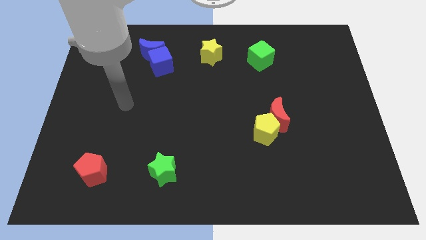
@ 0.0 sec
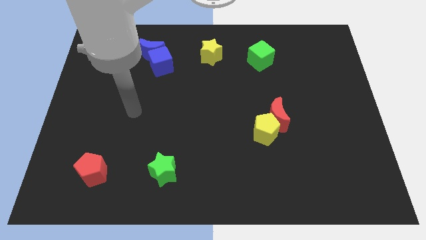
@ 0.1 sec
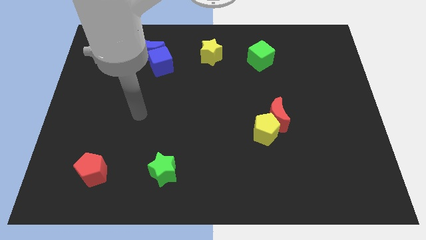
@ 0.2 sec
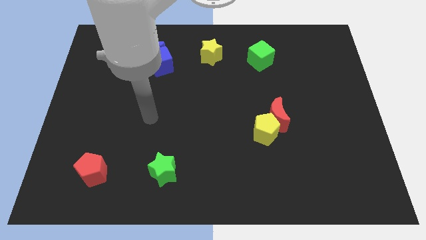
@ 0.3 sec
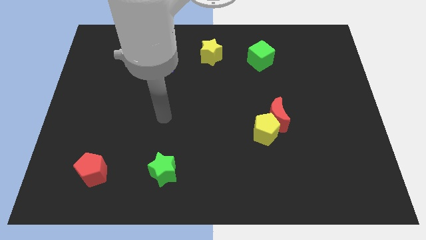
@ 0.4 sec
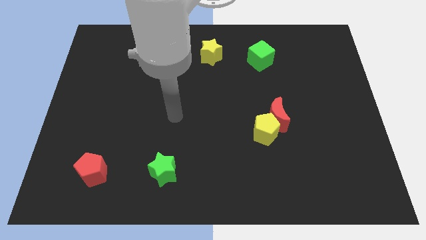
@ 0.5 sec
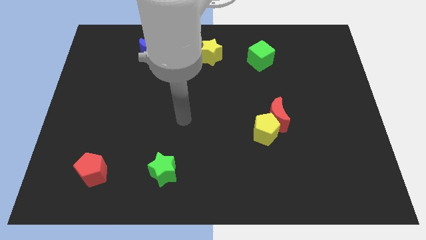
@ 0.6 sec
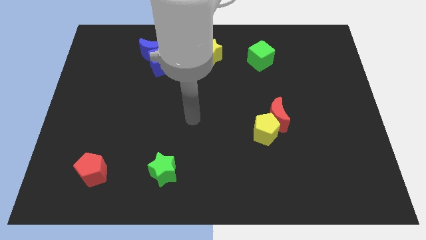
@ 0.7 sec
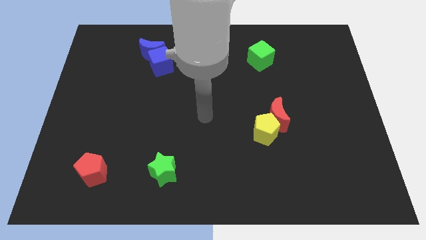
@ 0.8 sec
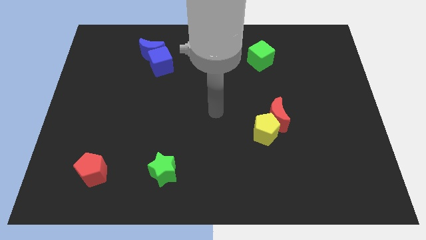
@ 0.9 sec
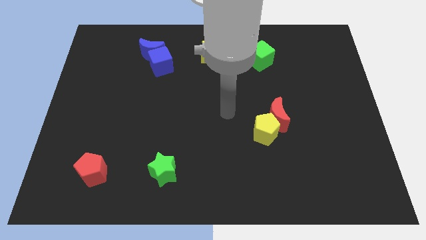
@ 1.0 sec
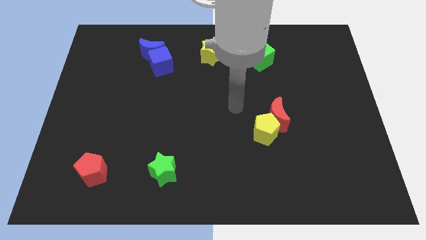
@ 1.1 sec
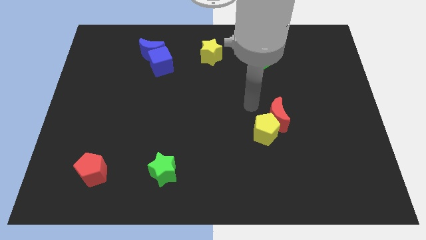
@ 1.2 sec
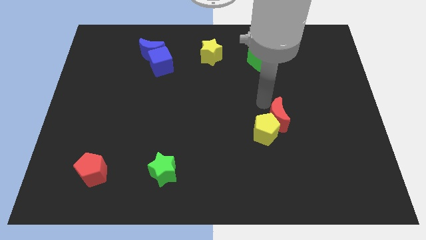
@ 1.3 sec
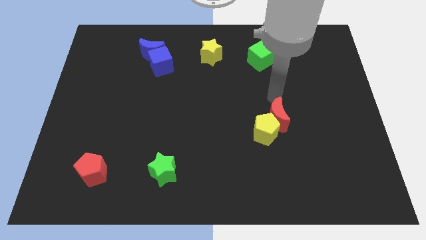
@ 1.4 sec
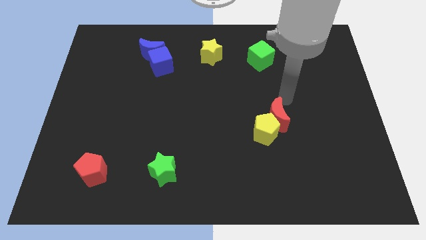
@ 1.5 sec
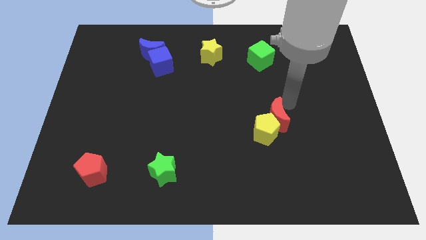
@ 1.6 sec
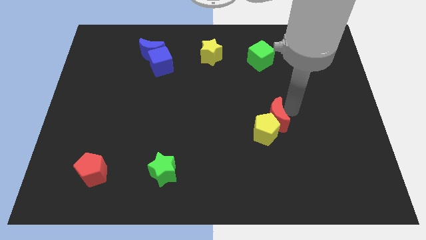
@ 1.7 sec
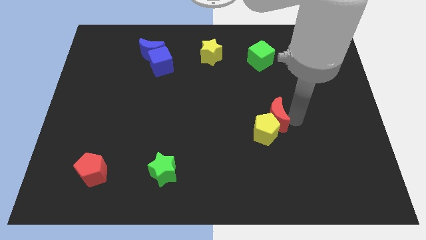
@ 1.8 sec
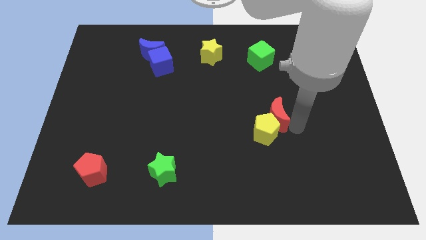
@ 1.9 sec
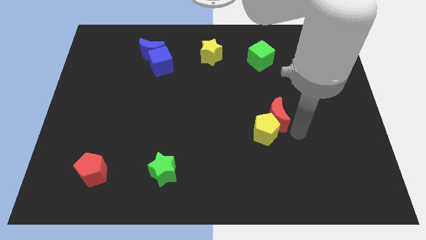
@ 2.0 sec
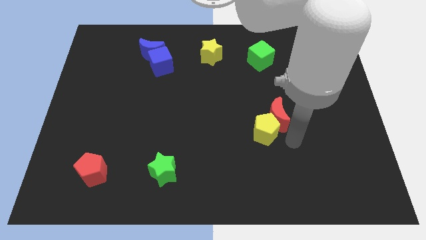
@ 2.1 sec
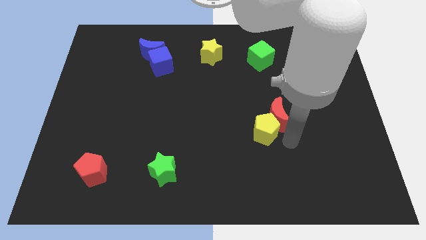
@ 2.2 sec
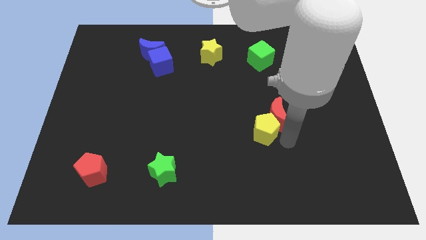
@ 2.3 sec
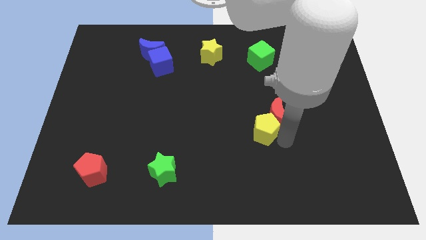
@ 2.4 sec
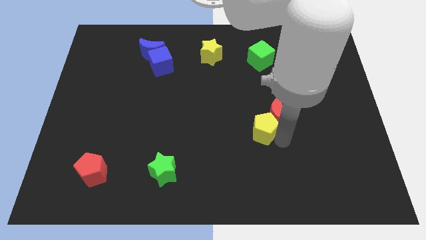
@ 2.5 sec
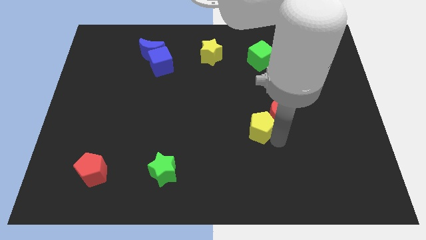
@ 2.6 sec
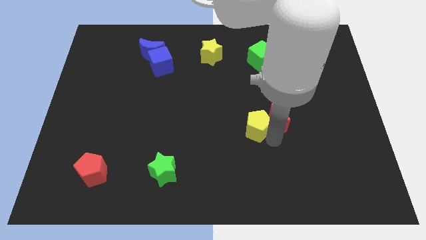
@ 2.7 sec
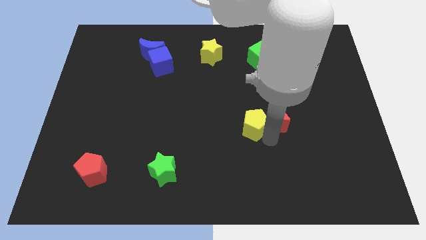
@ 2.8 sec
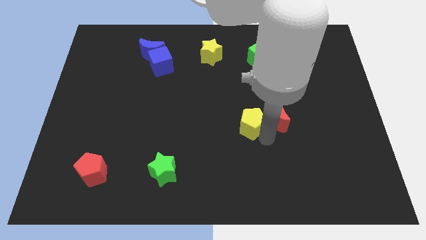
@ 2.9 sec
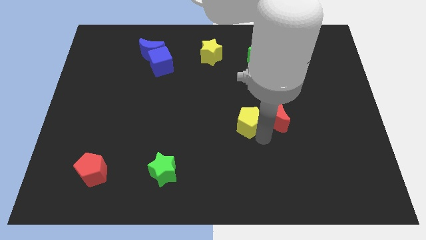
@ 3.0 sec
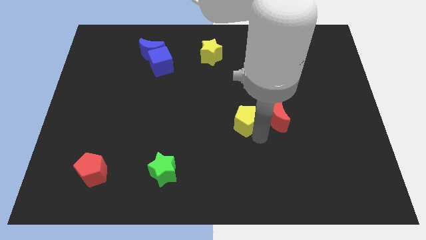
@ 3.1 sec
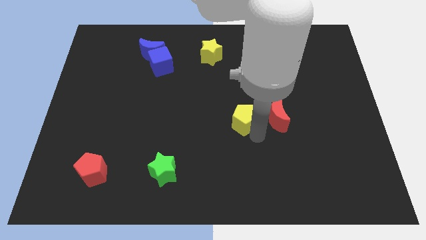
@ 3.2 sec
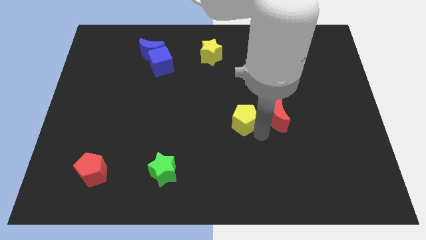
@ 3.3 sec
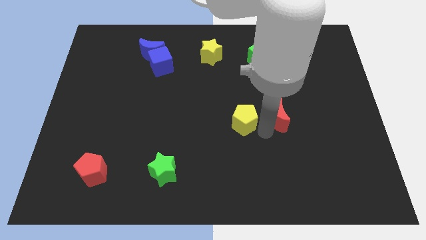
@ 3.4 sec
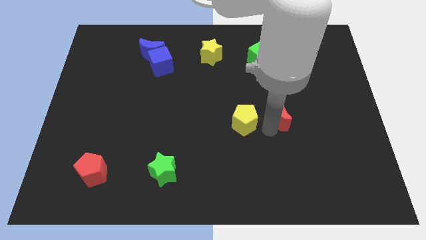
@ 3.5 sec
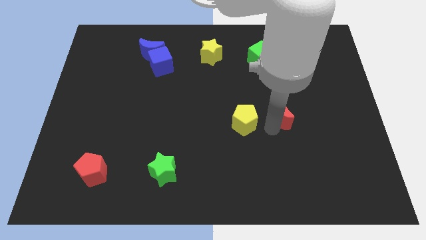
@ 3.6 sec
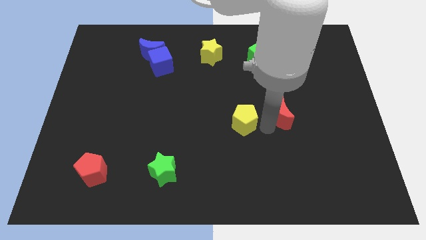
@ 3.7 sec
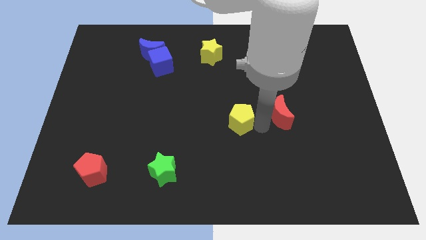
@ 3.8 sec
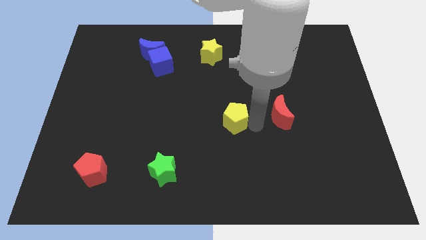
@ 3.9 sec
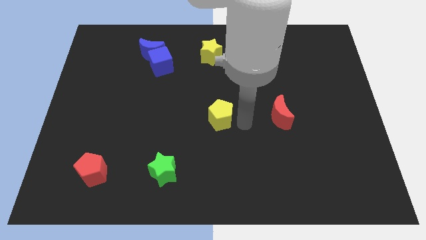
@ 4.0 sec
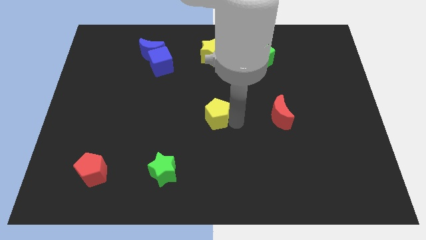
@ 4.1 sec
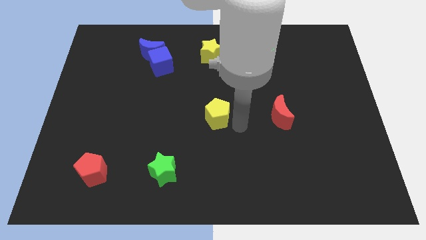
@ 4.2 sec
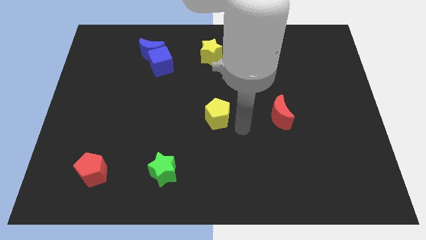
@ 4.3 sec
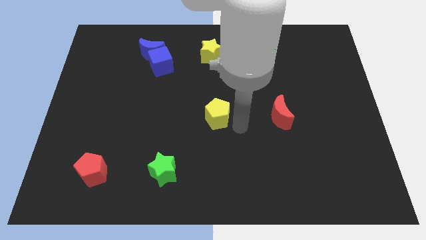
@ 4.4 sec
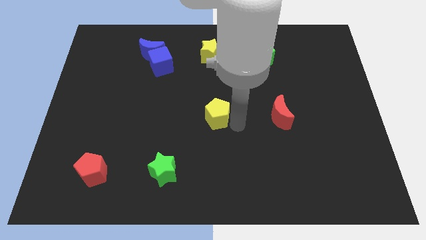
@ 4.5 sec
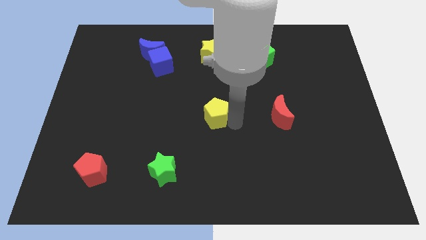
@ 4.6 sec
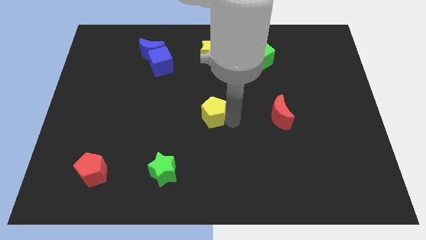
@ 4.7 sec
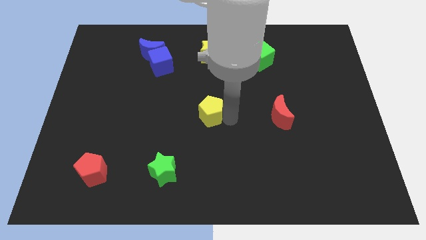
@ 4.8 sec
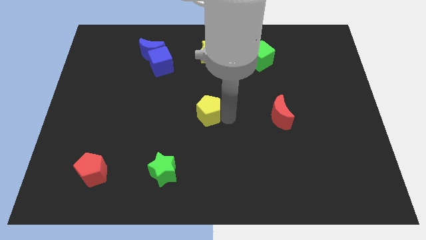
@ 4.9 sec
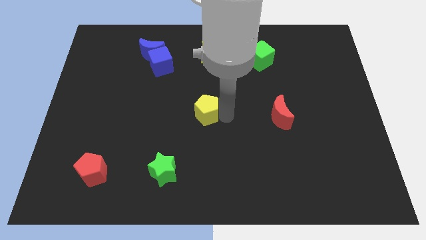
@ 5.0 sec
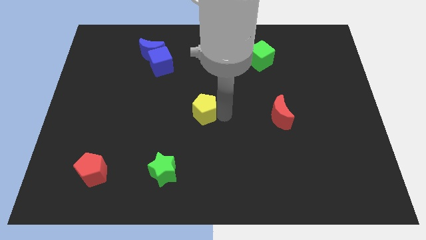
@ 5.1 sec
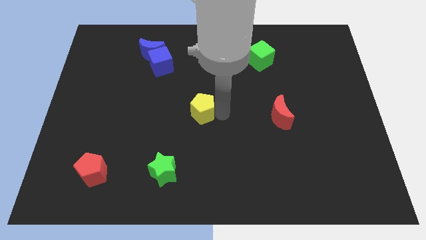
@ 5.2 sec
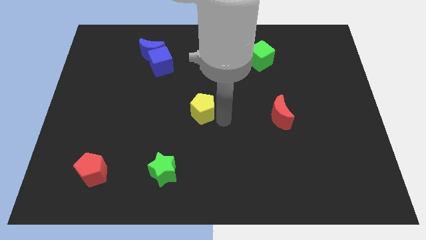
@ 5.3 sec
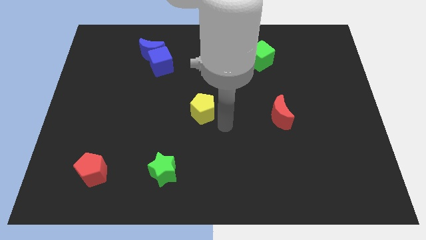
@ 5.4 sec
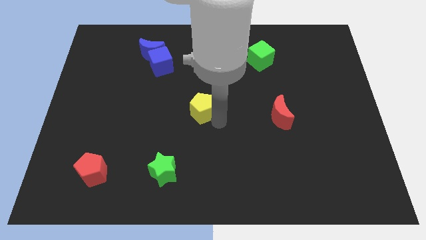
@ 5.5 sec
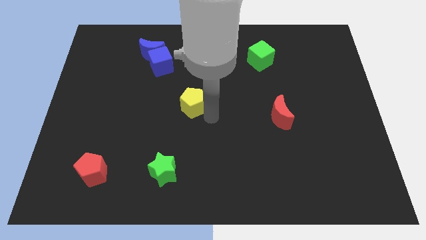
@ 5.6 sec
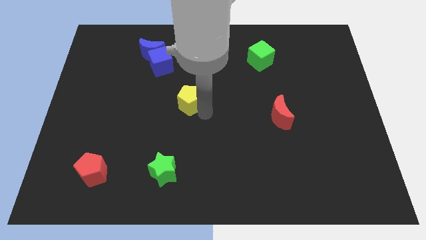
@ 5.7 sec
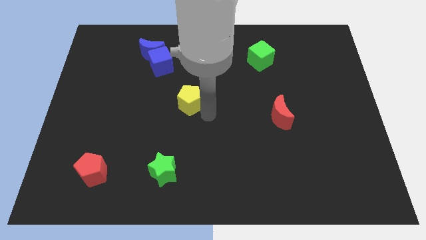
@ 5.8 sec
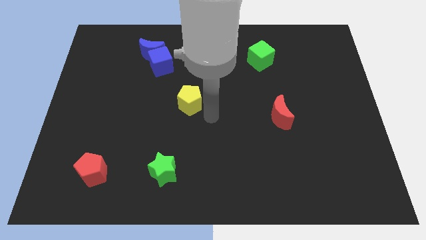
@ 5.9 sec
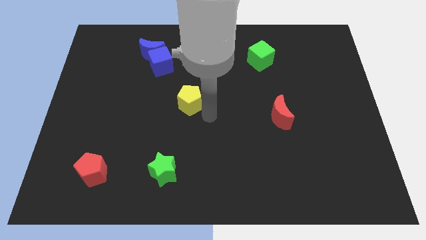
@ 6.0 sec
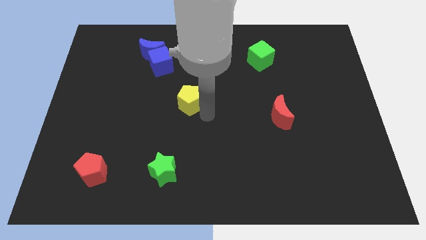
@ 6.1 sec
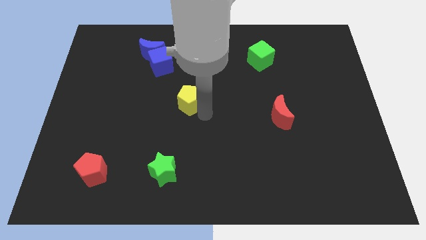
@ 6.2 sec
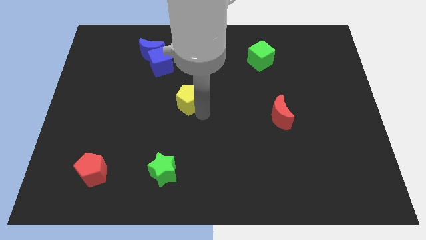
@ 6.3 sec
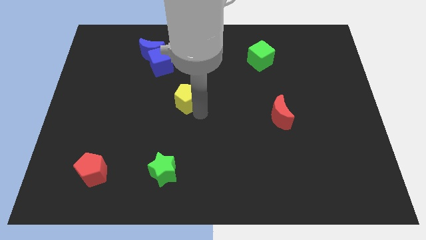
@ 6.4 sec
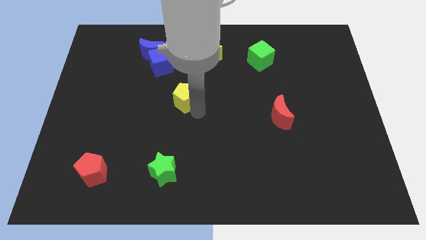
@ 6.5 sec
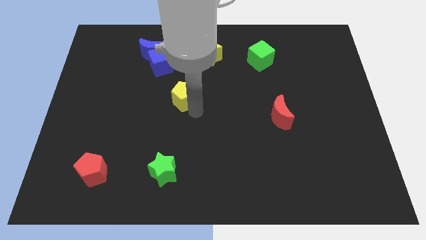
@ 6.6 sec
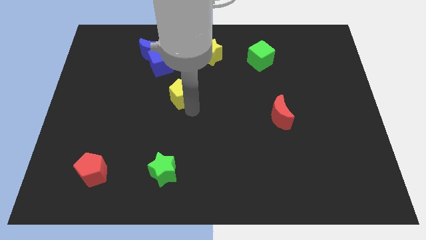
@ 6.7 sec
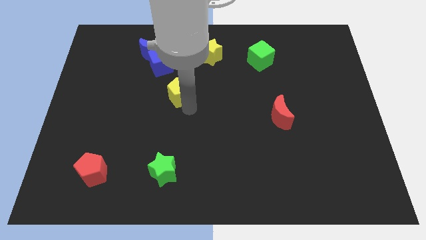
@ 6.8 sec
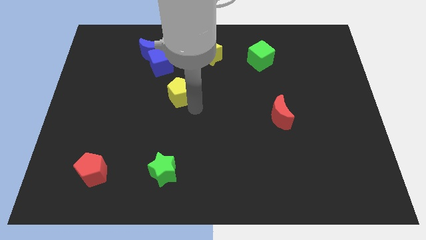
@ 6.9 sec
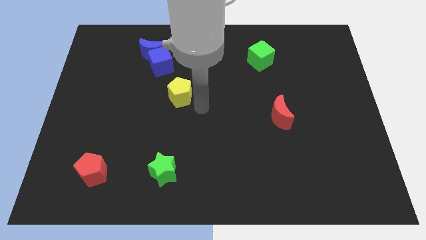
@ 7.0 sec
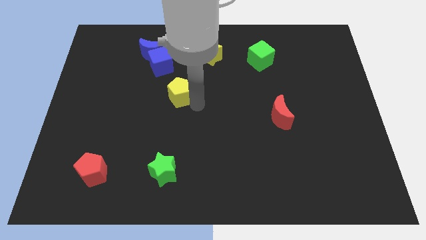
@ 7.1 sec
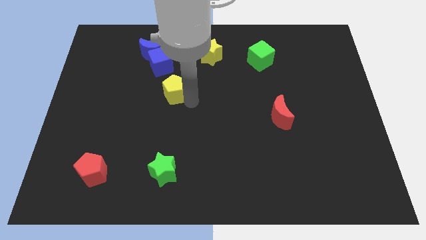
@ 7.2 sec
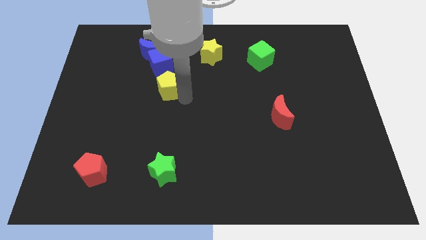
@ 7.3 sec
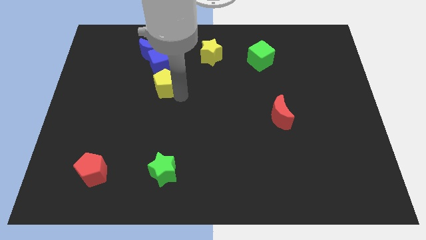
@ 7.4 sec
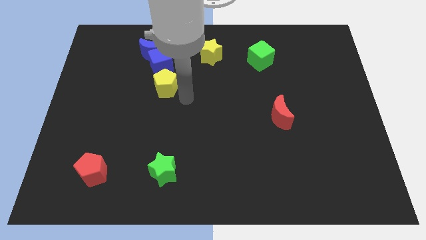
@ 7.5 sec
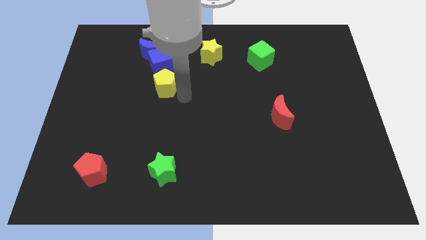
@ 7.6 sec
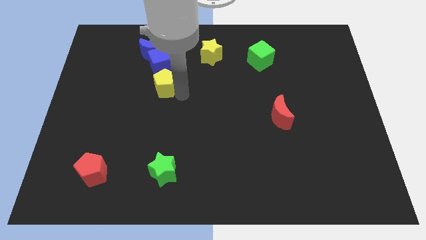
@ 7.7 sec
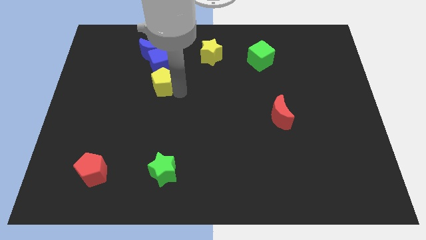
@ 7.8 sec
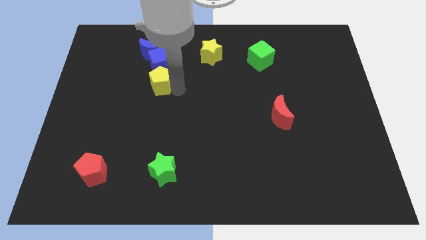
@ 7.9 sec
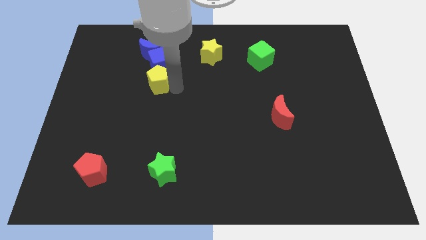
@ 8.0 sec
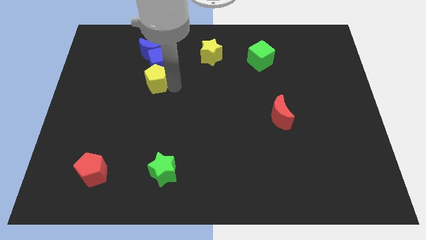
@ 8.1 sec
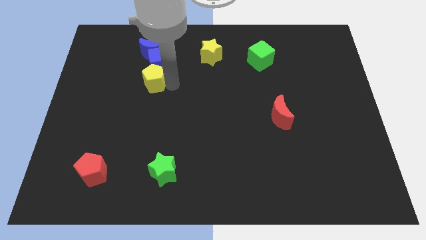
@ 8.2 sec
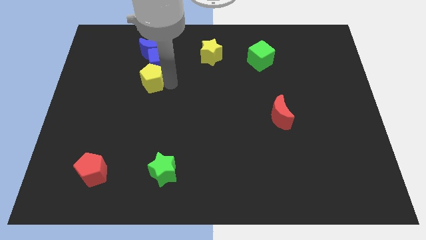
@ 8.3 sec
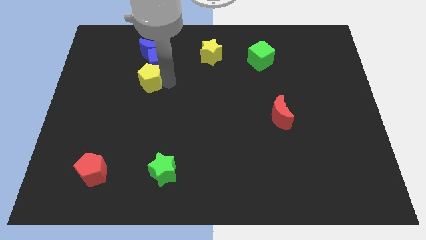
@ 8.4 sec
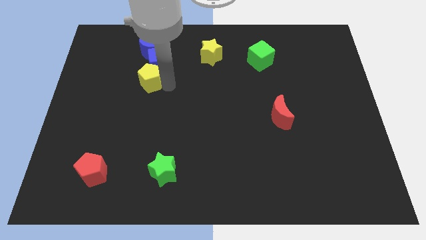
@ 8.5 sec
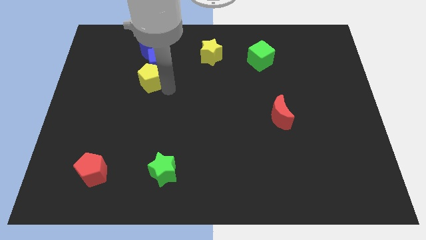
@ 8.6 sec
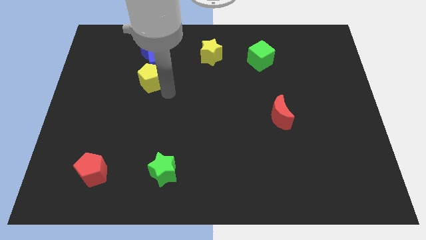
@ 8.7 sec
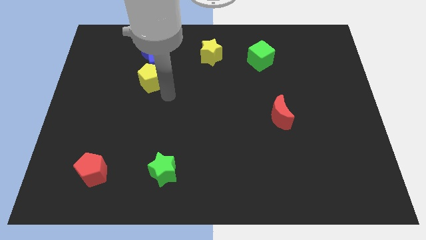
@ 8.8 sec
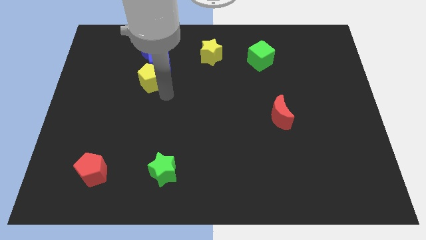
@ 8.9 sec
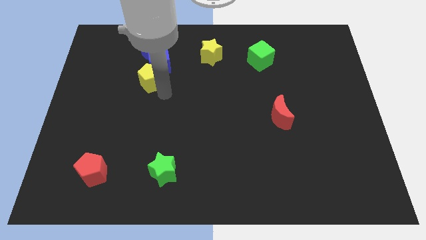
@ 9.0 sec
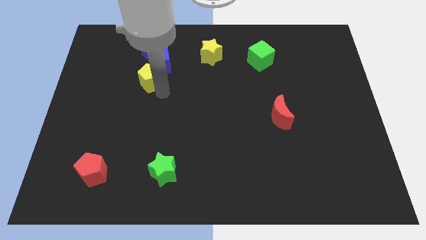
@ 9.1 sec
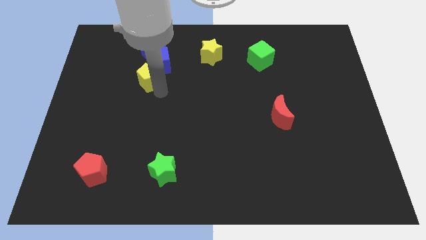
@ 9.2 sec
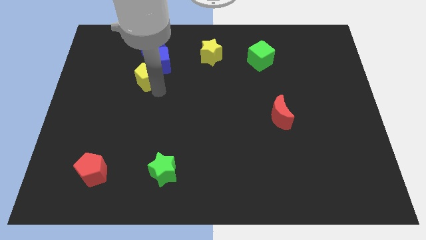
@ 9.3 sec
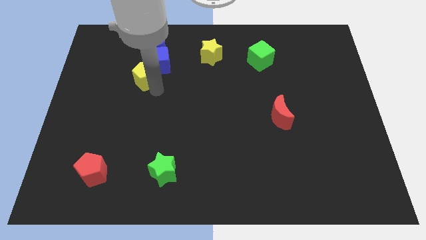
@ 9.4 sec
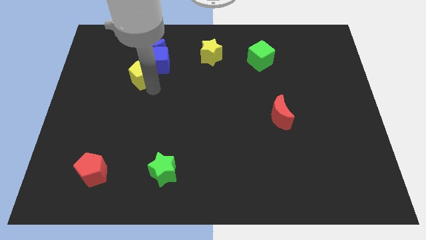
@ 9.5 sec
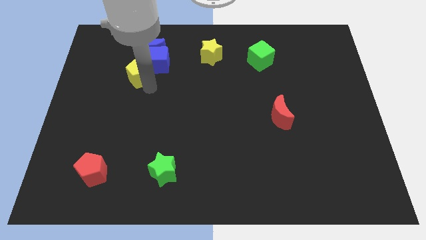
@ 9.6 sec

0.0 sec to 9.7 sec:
put the yellow pentagon to the left side of the blue cube
